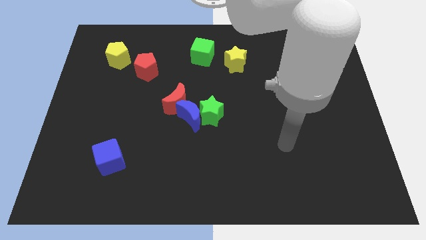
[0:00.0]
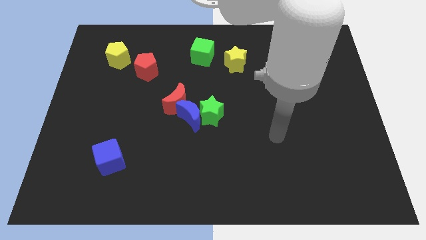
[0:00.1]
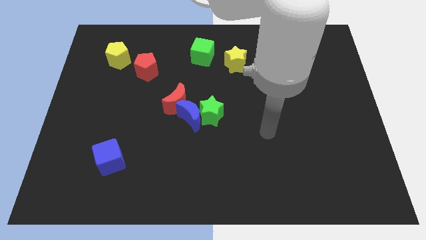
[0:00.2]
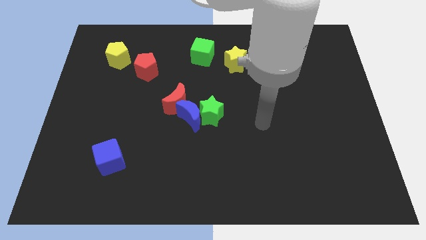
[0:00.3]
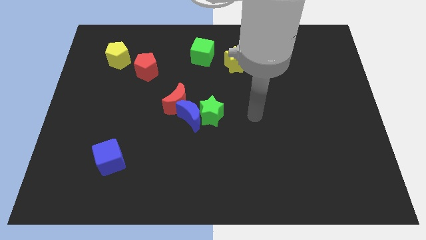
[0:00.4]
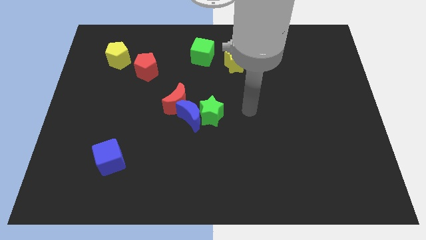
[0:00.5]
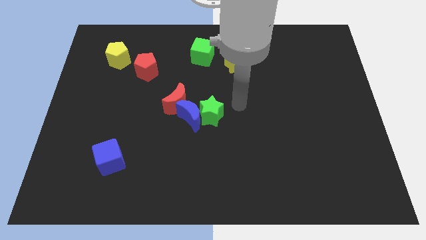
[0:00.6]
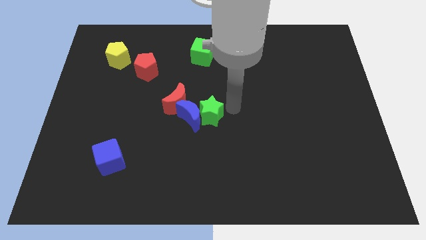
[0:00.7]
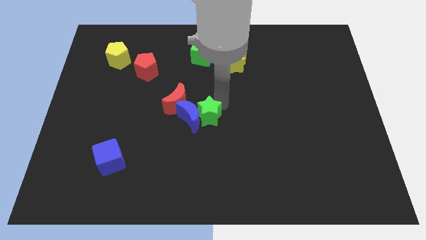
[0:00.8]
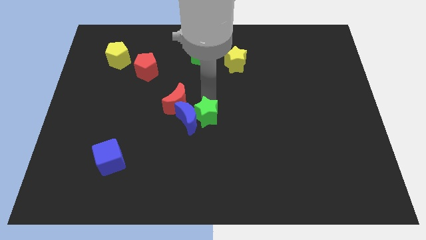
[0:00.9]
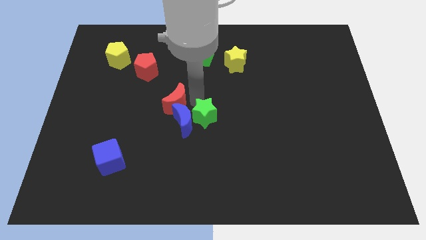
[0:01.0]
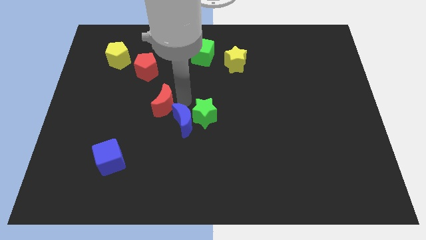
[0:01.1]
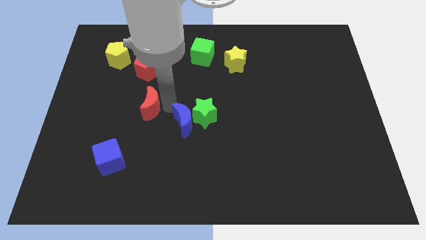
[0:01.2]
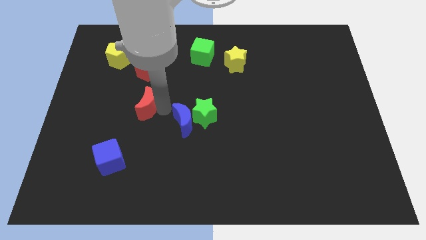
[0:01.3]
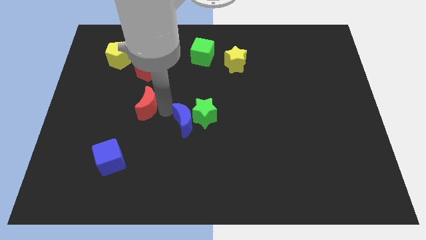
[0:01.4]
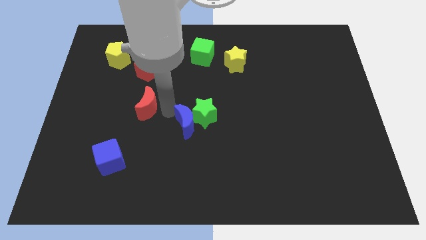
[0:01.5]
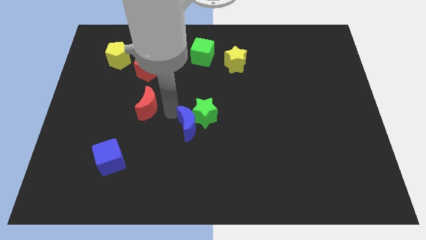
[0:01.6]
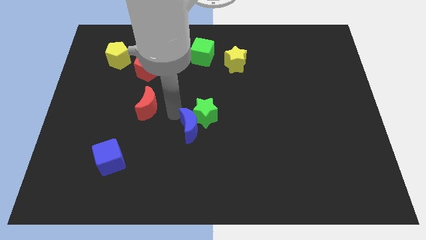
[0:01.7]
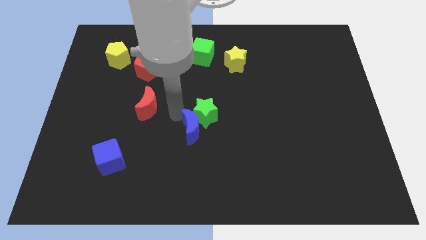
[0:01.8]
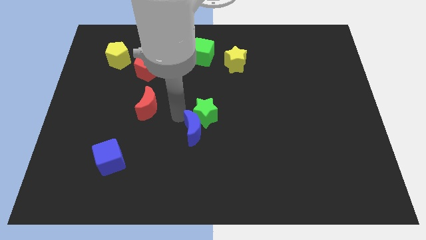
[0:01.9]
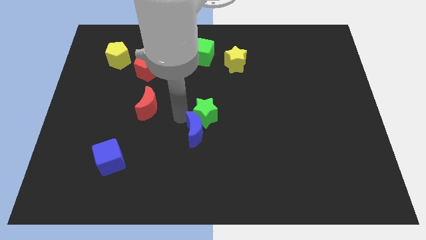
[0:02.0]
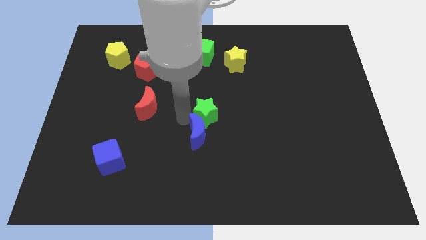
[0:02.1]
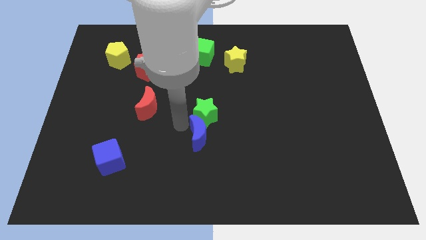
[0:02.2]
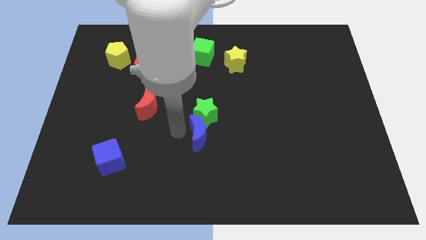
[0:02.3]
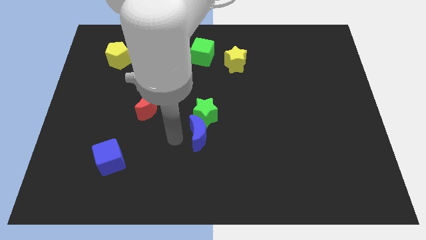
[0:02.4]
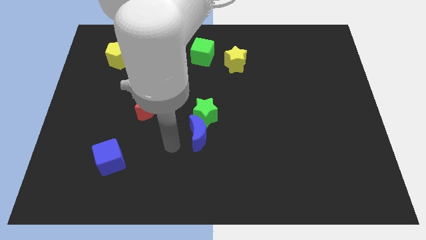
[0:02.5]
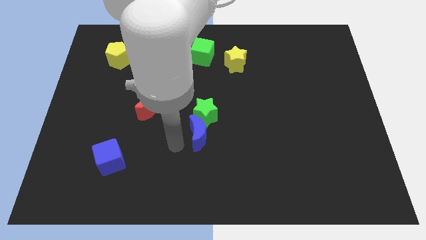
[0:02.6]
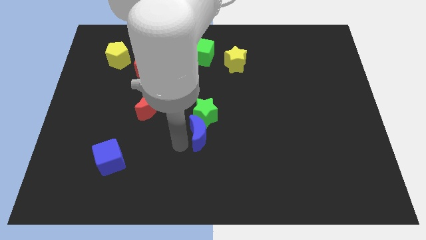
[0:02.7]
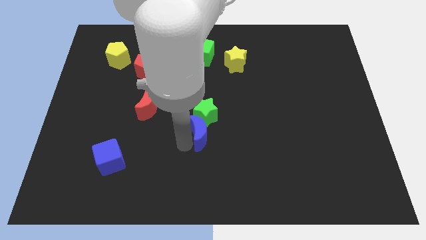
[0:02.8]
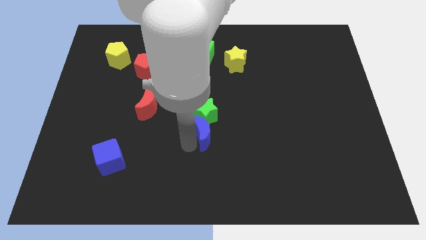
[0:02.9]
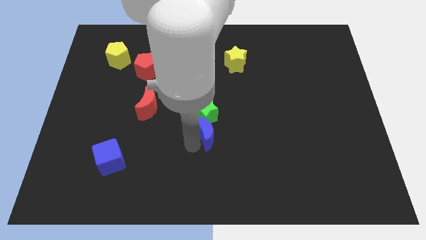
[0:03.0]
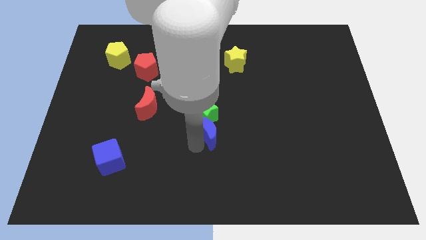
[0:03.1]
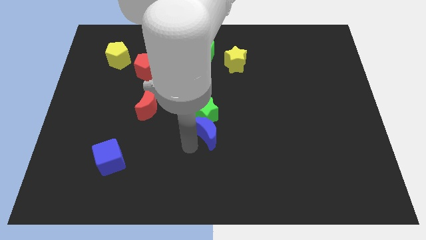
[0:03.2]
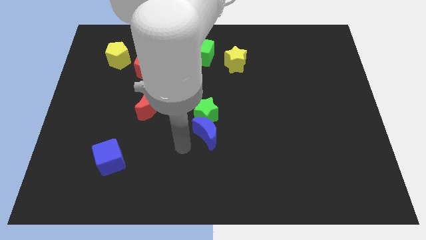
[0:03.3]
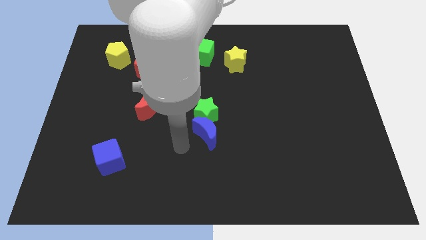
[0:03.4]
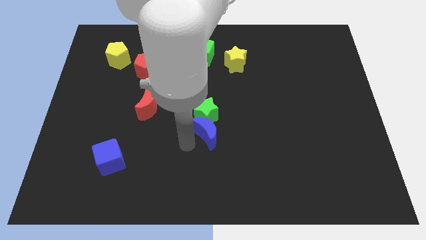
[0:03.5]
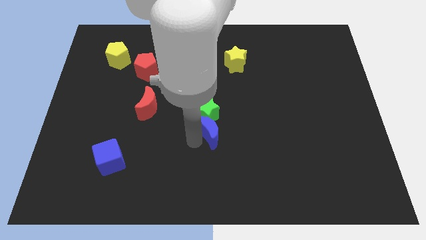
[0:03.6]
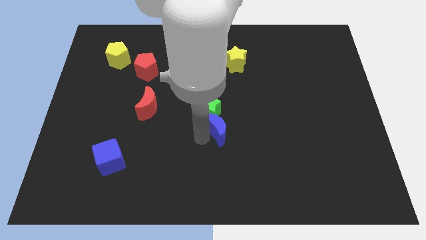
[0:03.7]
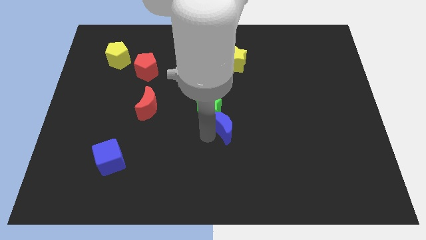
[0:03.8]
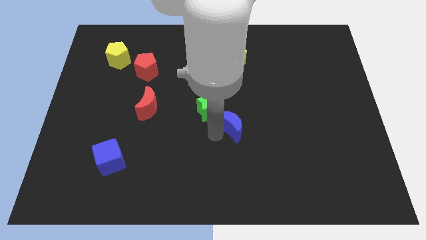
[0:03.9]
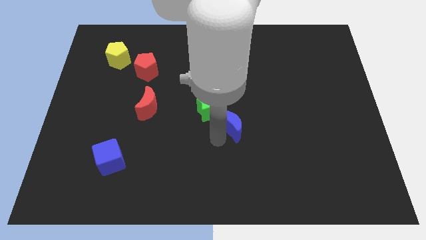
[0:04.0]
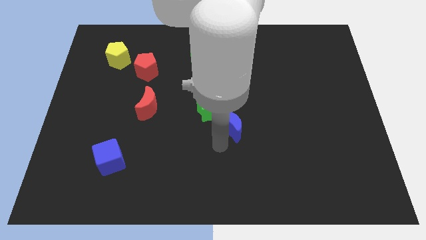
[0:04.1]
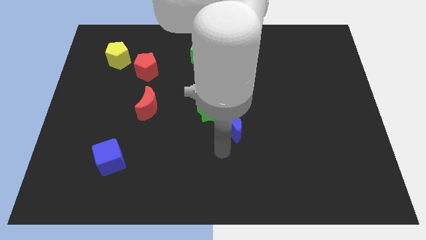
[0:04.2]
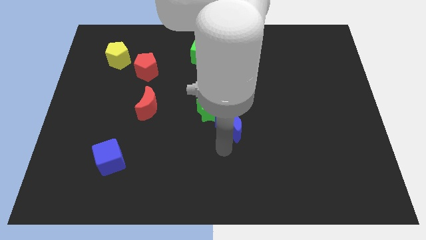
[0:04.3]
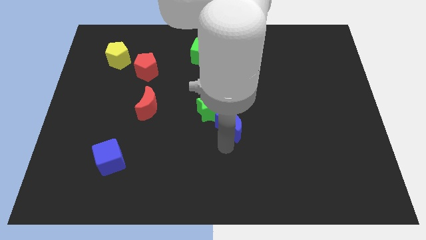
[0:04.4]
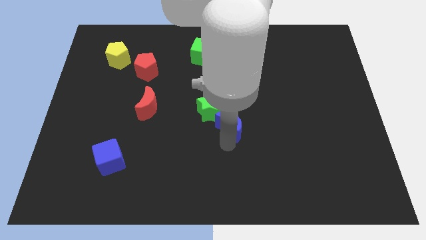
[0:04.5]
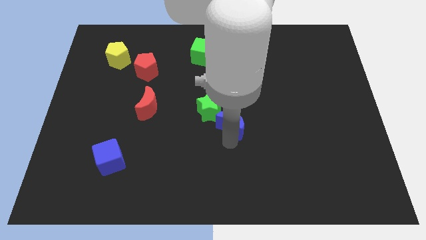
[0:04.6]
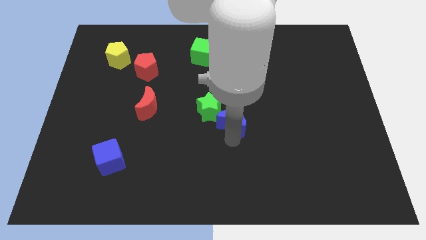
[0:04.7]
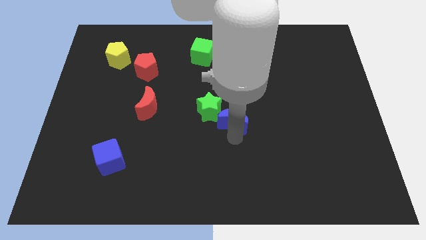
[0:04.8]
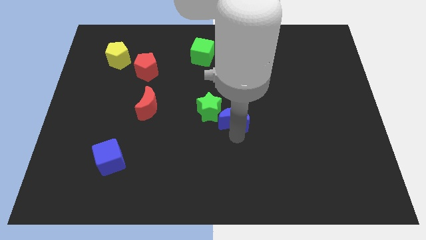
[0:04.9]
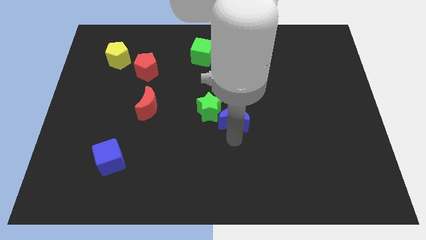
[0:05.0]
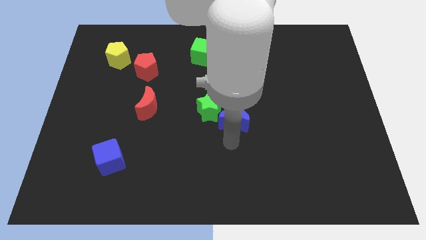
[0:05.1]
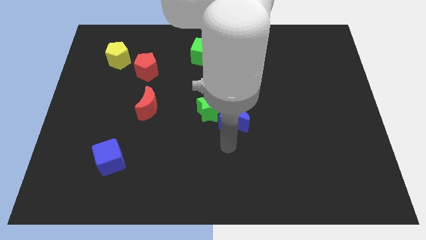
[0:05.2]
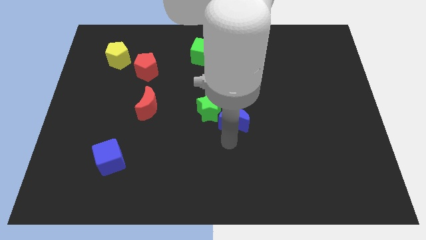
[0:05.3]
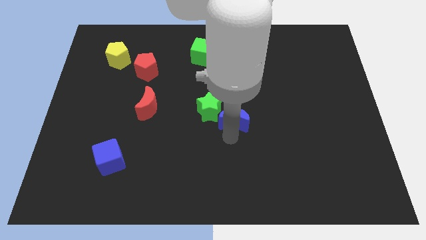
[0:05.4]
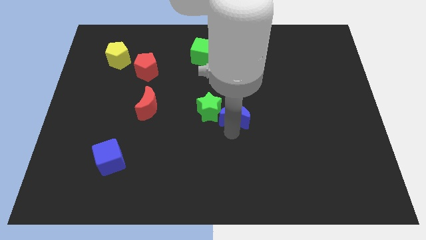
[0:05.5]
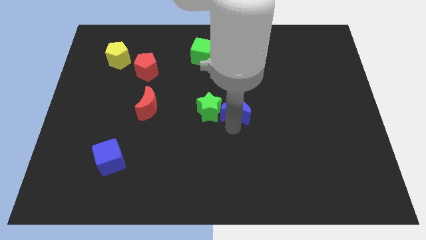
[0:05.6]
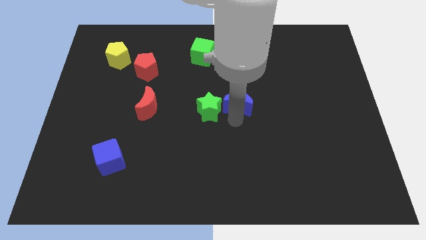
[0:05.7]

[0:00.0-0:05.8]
push the blue moon somewhat up and to the right diagonally

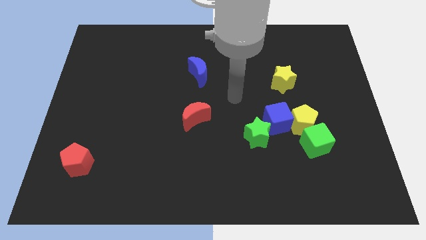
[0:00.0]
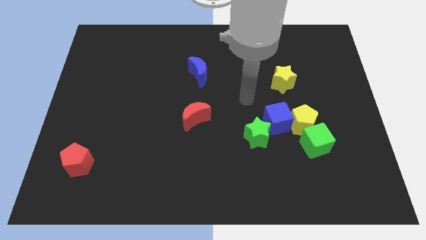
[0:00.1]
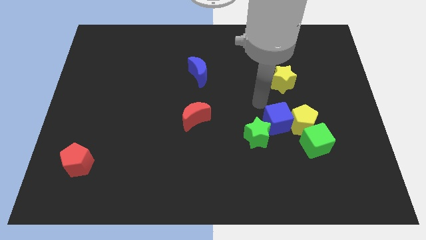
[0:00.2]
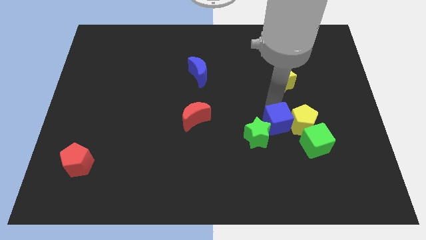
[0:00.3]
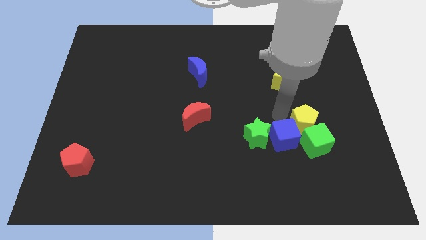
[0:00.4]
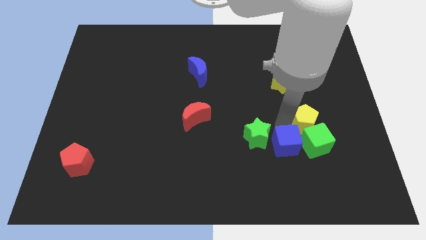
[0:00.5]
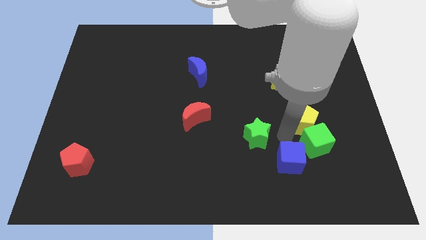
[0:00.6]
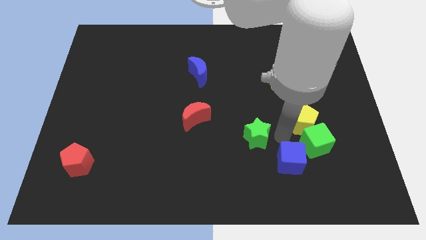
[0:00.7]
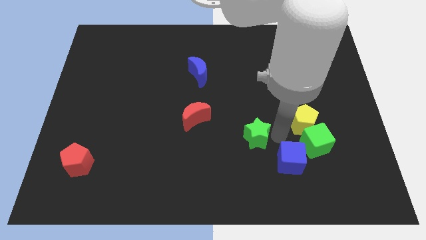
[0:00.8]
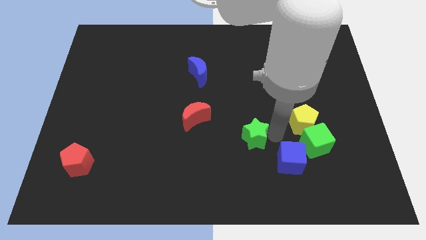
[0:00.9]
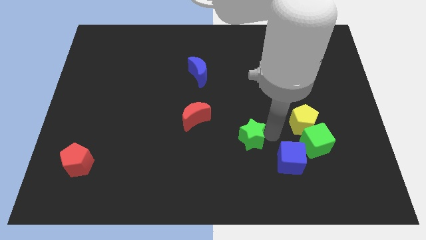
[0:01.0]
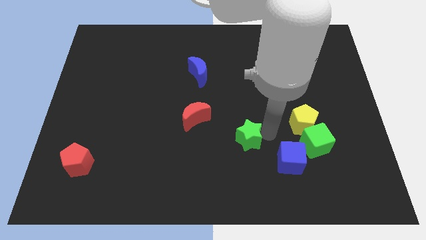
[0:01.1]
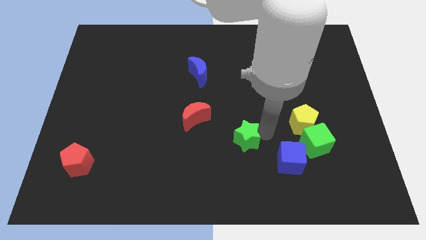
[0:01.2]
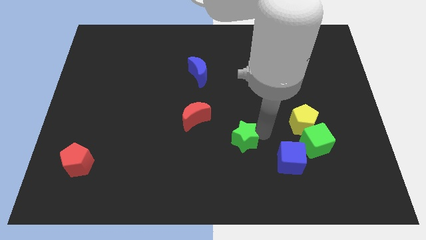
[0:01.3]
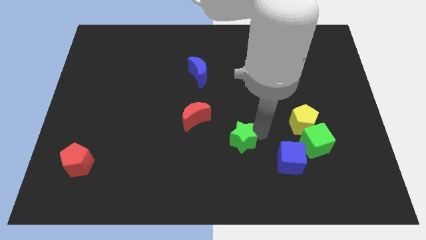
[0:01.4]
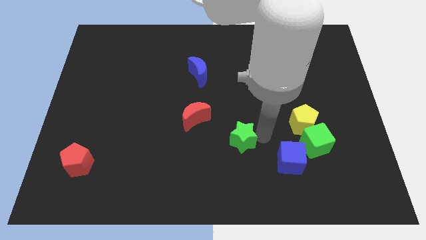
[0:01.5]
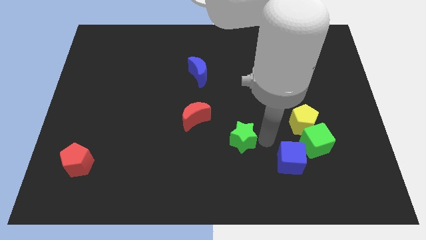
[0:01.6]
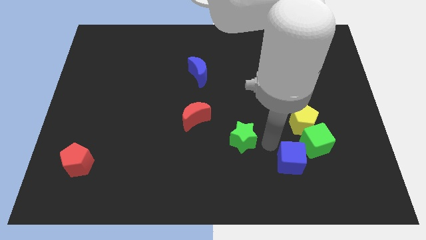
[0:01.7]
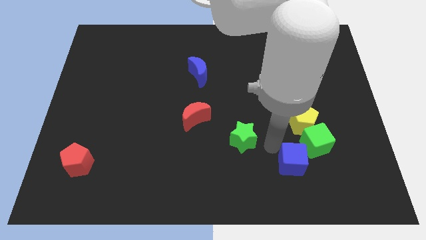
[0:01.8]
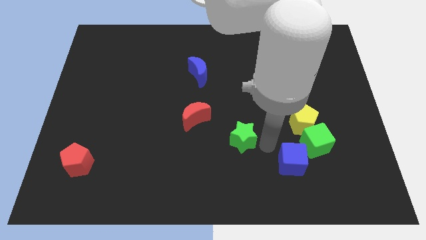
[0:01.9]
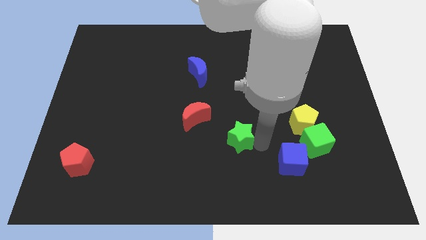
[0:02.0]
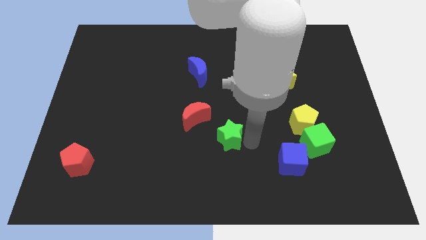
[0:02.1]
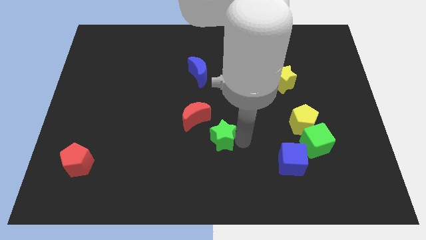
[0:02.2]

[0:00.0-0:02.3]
slightly slide the green star to the left

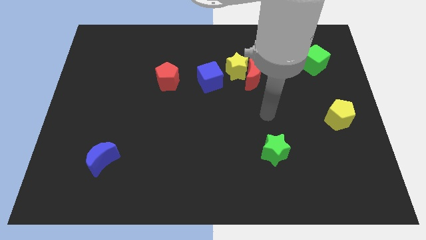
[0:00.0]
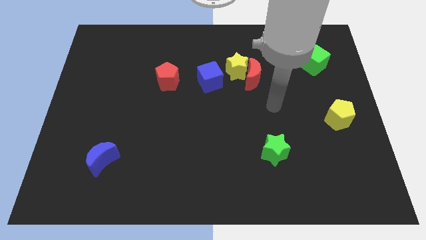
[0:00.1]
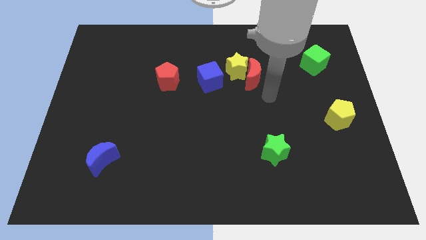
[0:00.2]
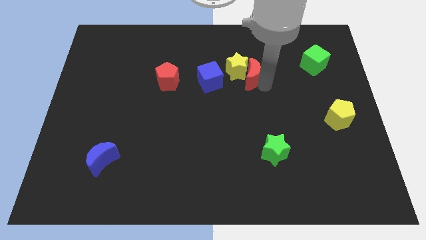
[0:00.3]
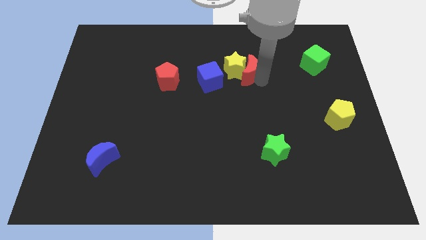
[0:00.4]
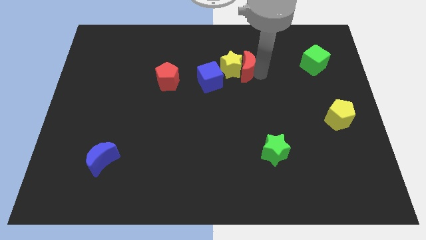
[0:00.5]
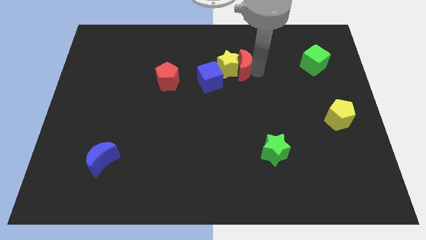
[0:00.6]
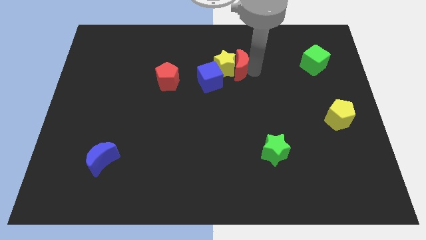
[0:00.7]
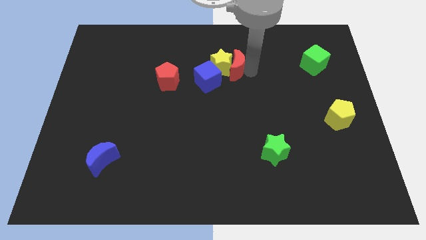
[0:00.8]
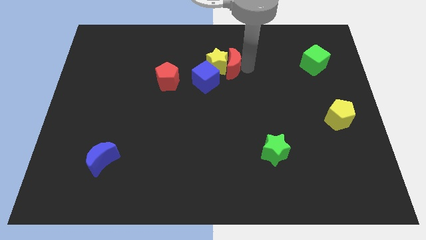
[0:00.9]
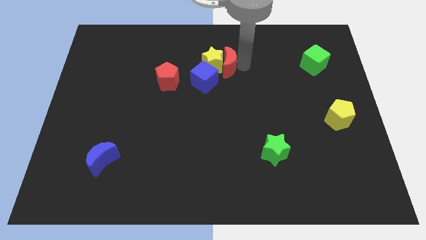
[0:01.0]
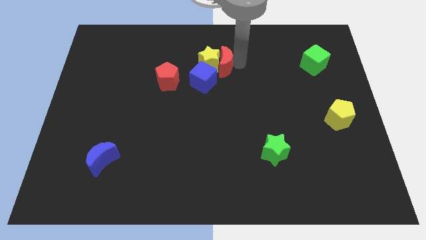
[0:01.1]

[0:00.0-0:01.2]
move the yellow star to the left a little
